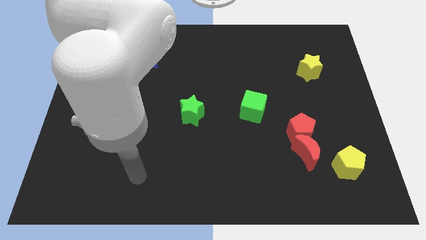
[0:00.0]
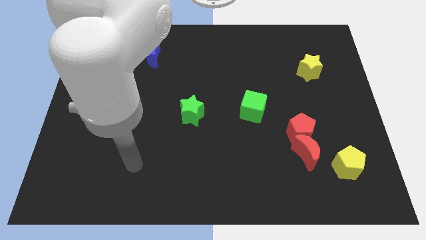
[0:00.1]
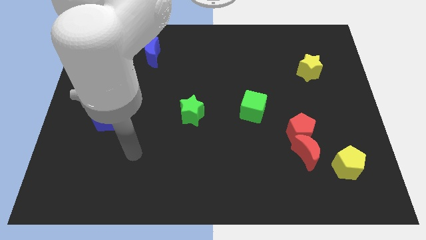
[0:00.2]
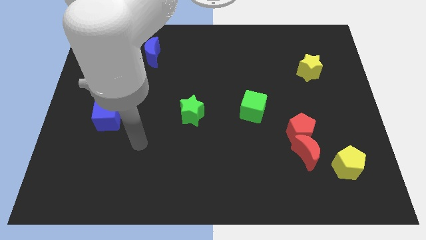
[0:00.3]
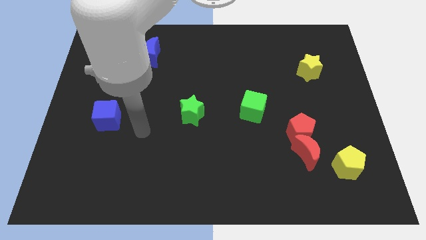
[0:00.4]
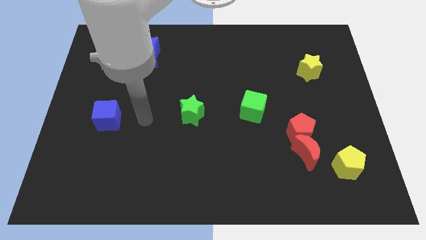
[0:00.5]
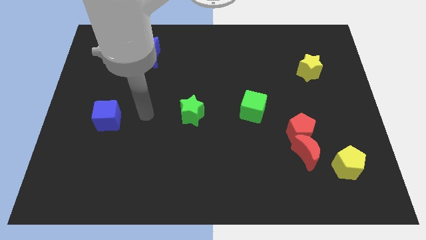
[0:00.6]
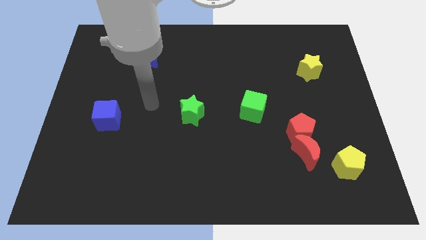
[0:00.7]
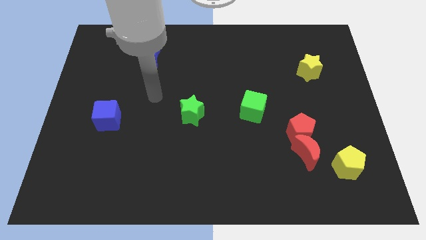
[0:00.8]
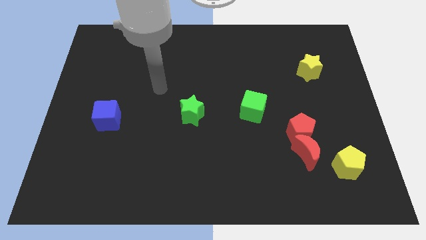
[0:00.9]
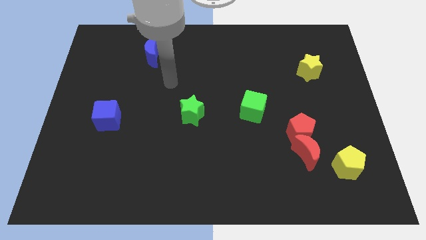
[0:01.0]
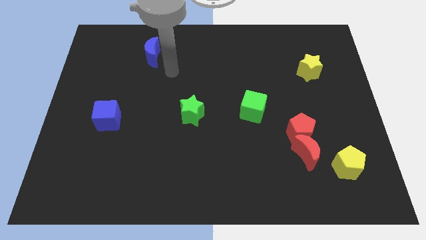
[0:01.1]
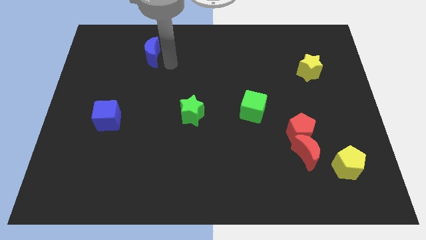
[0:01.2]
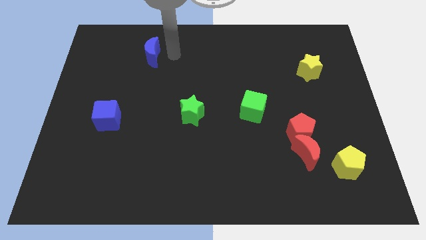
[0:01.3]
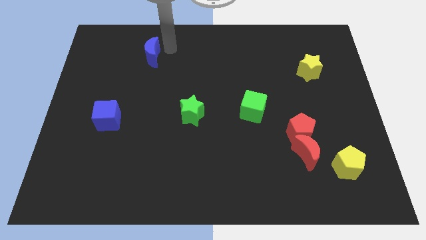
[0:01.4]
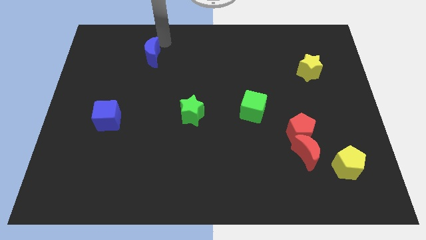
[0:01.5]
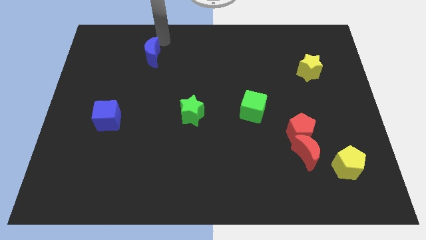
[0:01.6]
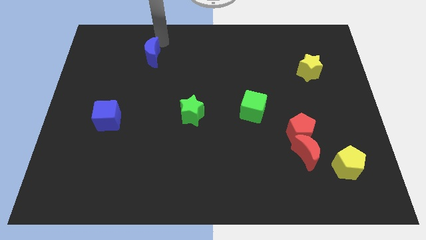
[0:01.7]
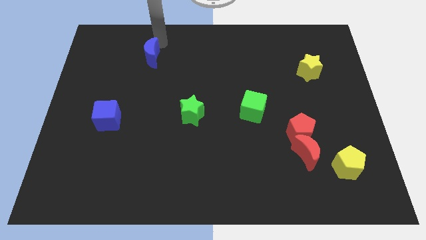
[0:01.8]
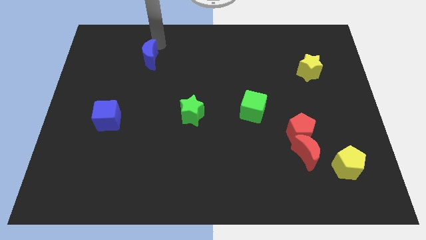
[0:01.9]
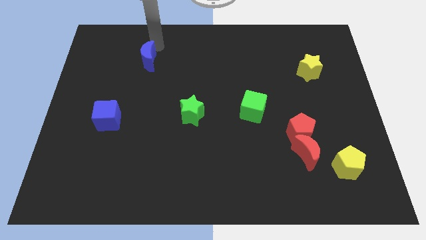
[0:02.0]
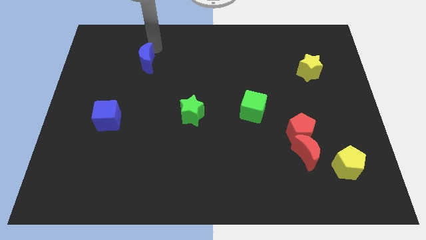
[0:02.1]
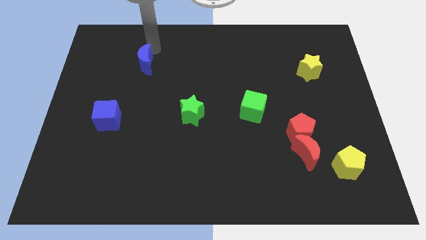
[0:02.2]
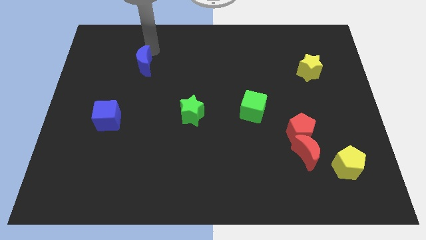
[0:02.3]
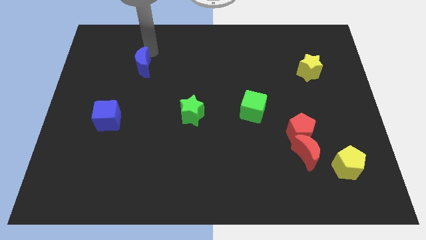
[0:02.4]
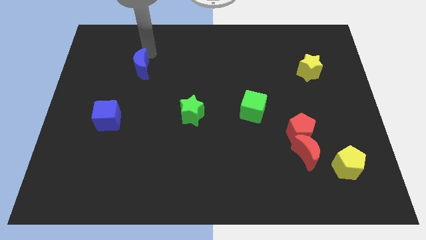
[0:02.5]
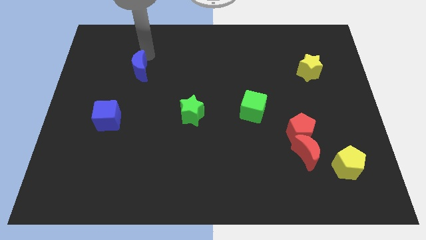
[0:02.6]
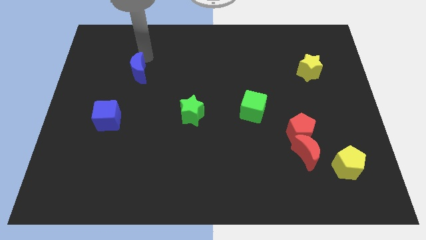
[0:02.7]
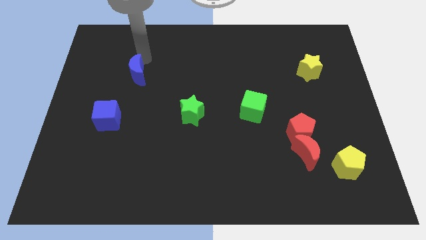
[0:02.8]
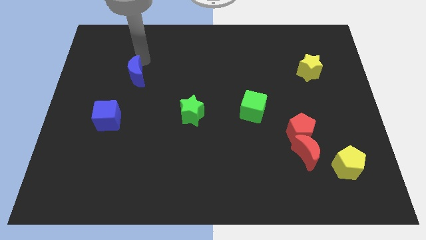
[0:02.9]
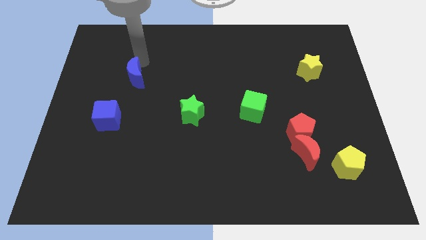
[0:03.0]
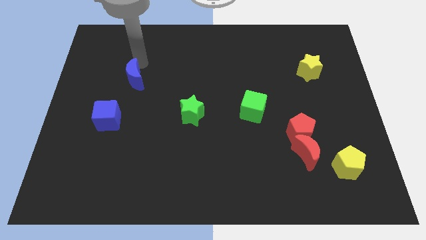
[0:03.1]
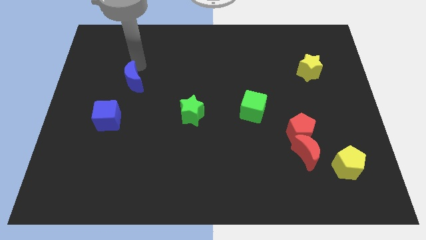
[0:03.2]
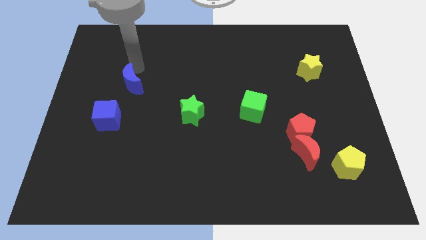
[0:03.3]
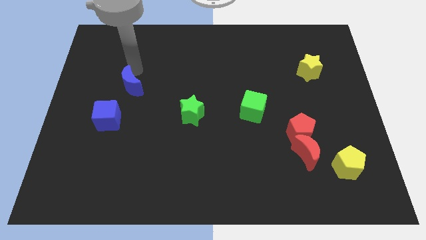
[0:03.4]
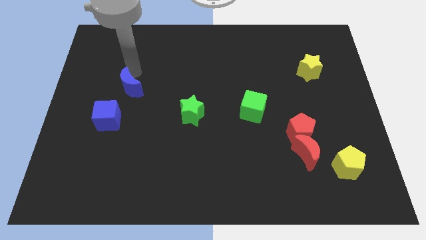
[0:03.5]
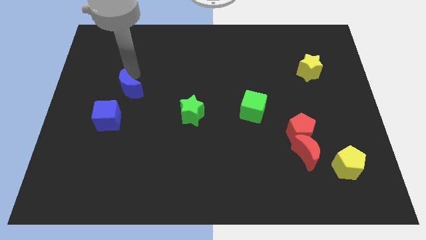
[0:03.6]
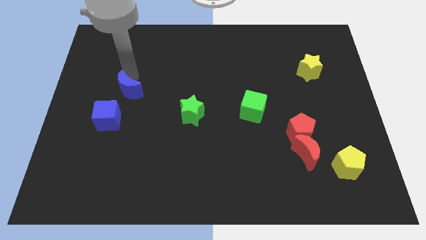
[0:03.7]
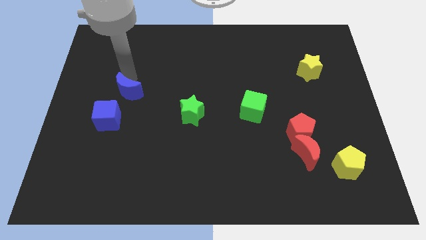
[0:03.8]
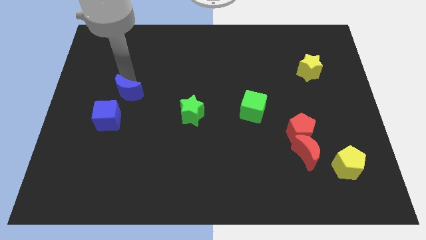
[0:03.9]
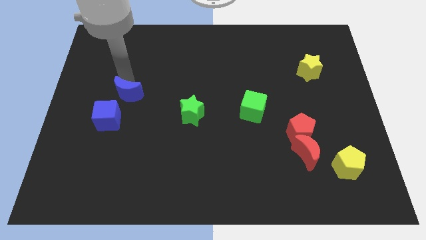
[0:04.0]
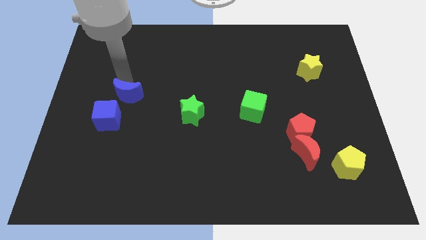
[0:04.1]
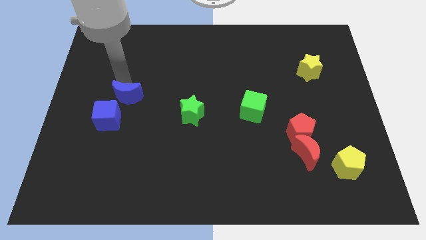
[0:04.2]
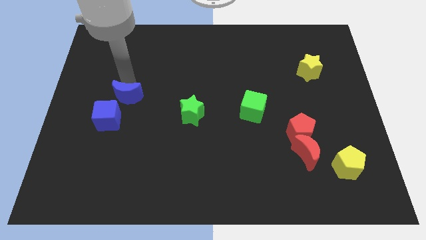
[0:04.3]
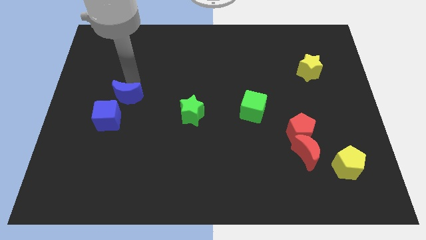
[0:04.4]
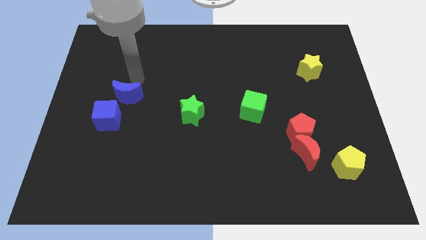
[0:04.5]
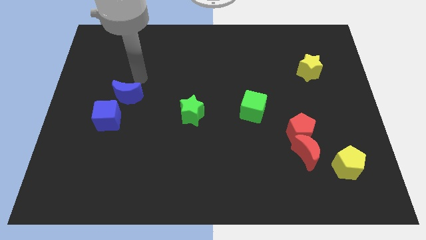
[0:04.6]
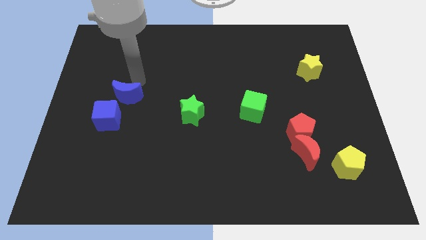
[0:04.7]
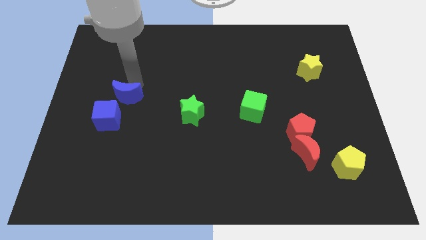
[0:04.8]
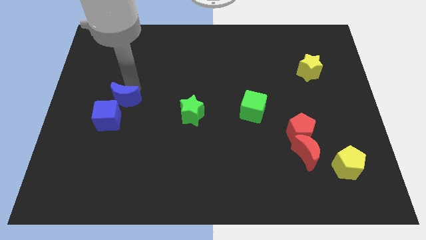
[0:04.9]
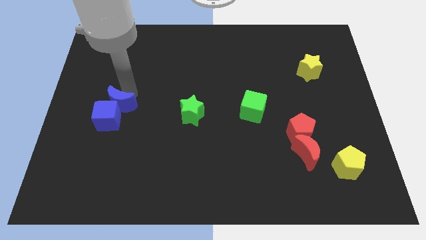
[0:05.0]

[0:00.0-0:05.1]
slide the blue moon next to the blue cube

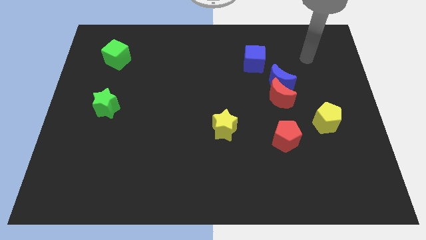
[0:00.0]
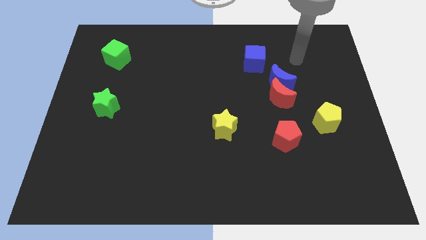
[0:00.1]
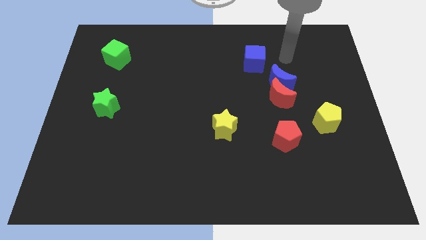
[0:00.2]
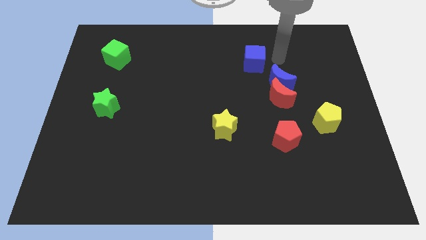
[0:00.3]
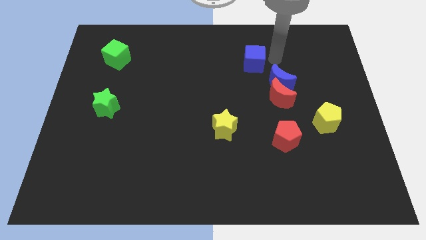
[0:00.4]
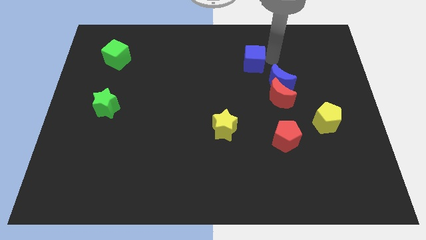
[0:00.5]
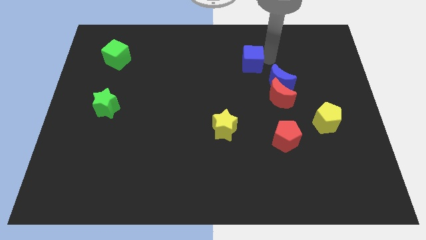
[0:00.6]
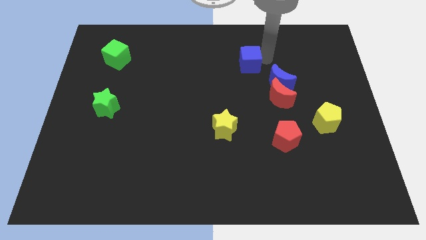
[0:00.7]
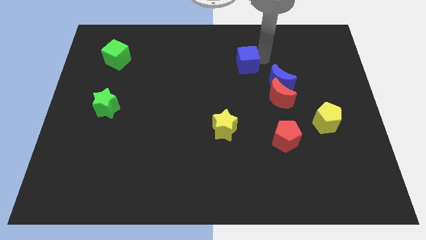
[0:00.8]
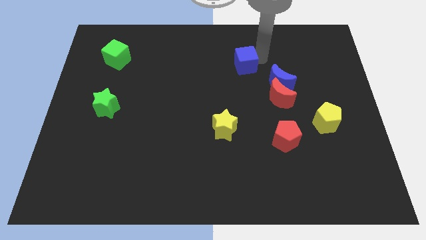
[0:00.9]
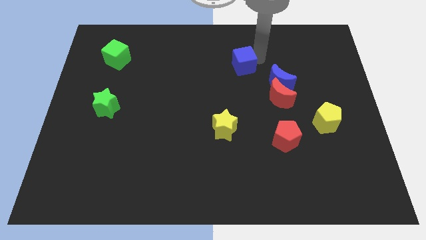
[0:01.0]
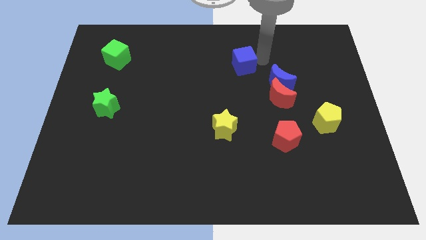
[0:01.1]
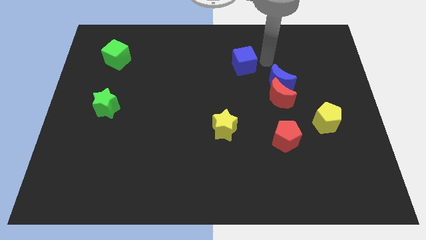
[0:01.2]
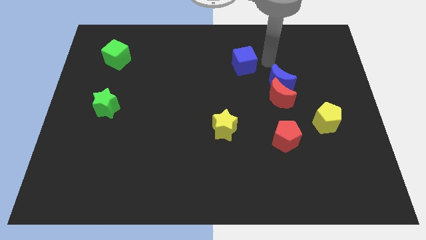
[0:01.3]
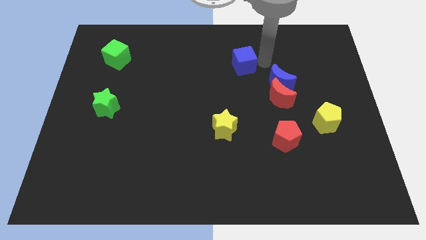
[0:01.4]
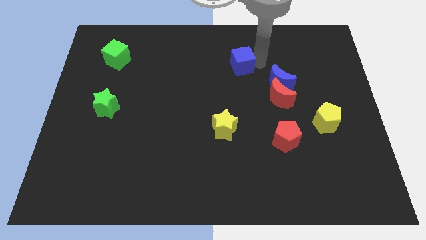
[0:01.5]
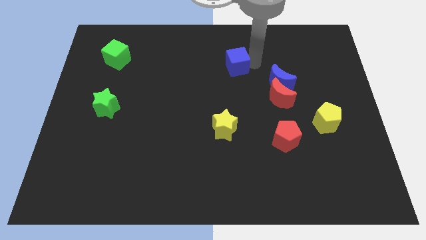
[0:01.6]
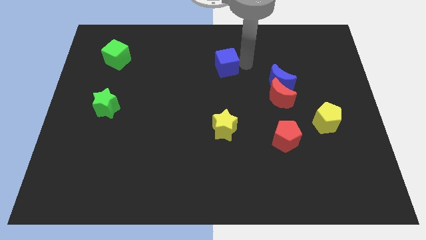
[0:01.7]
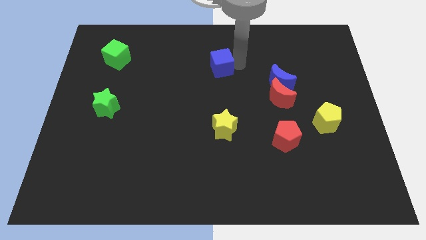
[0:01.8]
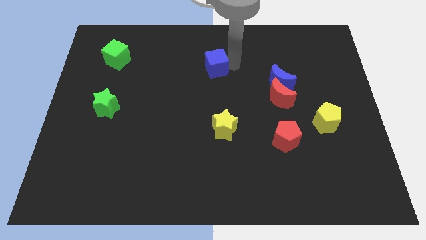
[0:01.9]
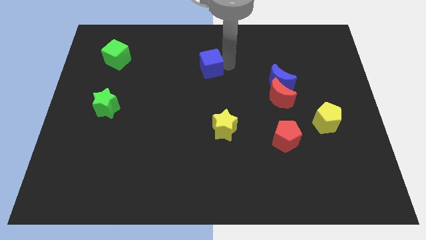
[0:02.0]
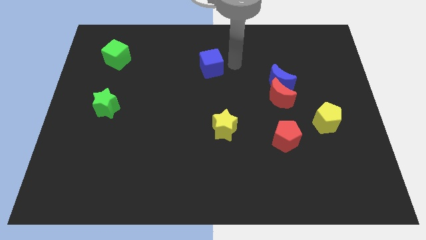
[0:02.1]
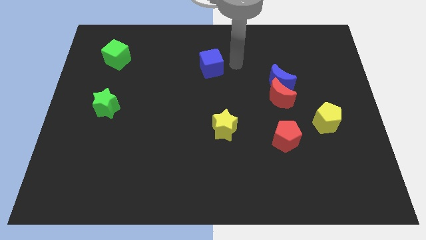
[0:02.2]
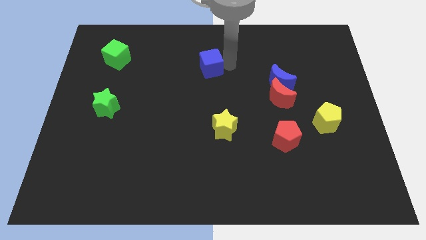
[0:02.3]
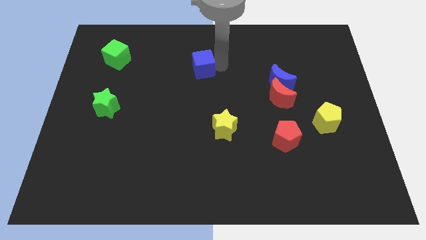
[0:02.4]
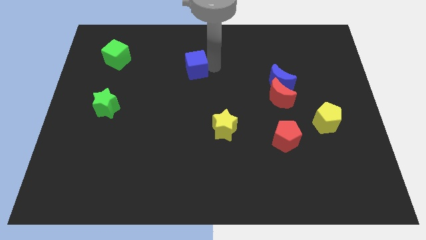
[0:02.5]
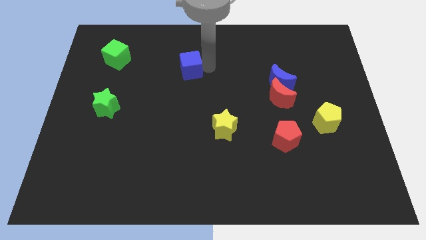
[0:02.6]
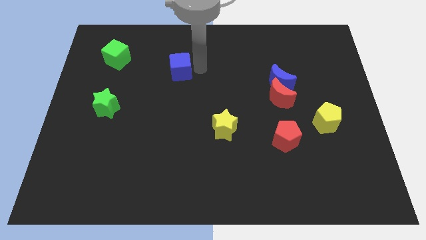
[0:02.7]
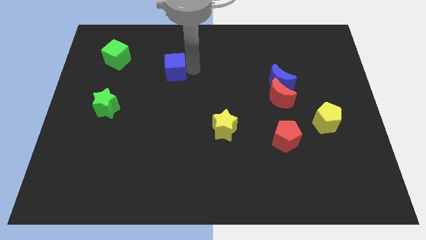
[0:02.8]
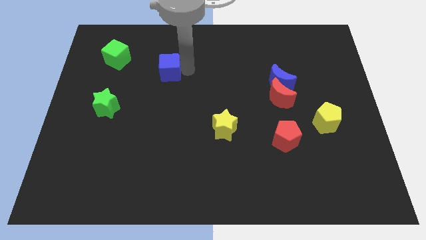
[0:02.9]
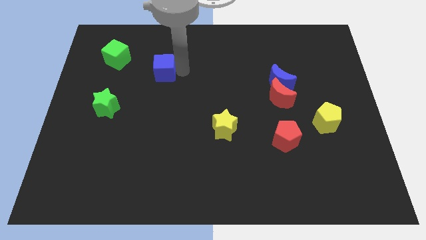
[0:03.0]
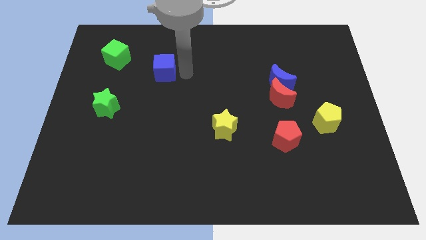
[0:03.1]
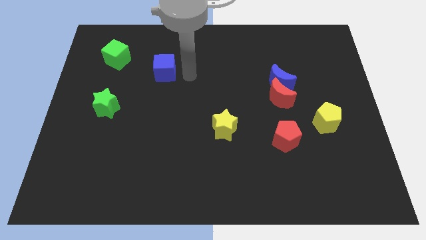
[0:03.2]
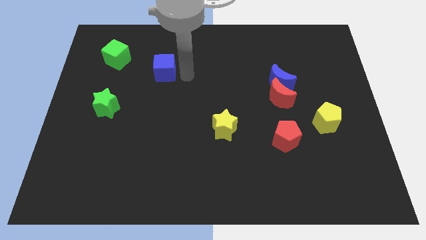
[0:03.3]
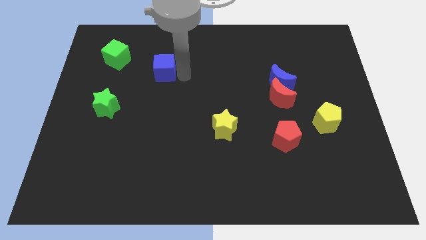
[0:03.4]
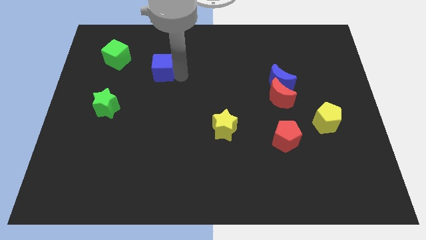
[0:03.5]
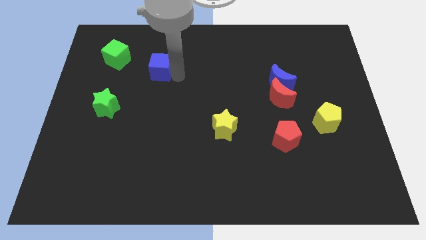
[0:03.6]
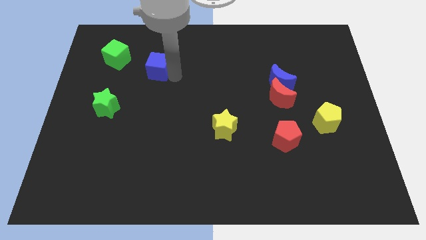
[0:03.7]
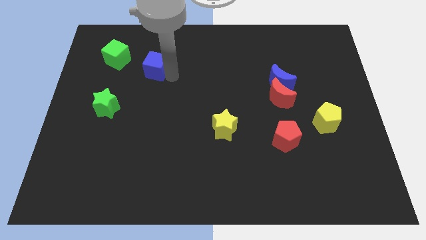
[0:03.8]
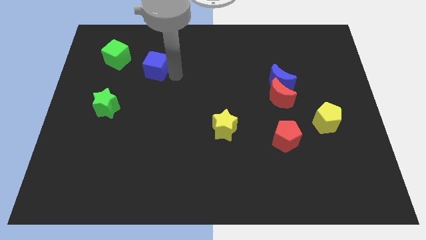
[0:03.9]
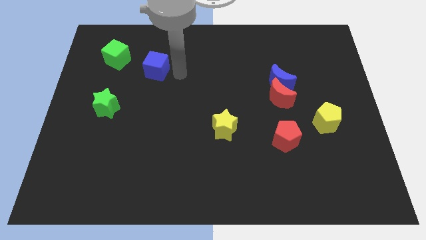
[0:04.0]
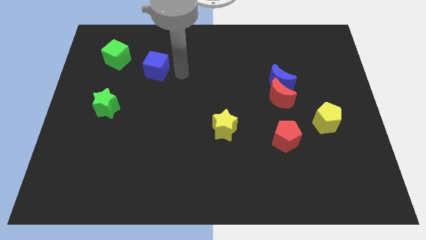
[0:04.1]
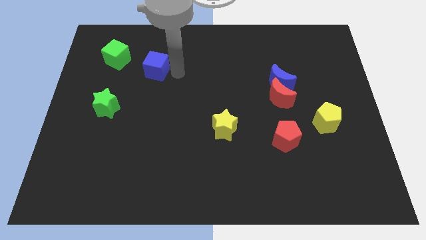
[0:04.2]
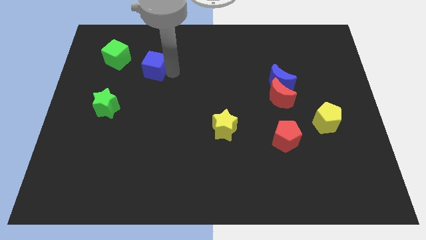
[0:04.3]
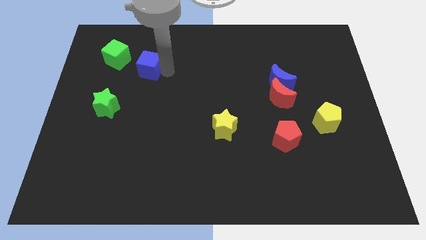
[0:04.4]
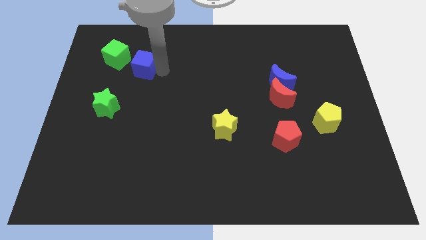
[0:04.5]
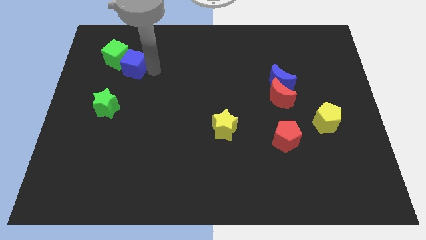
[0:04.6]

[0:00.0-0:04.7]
put the blue cube to the green cube
